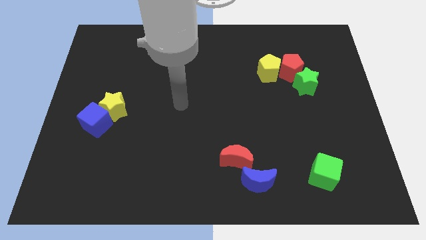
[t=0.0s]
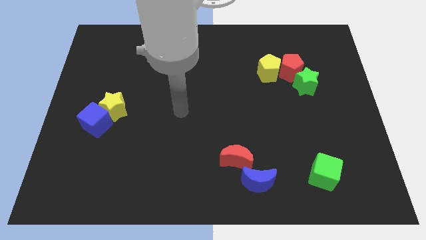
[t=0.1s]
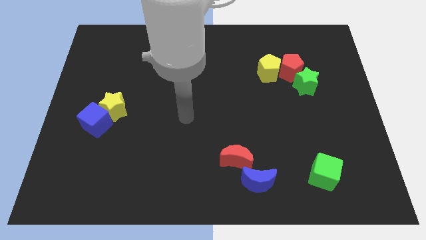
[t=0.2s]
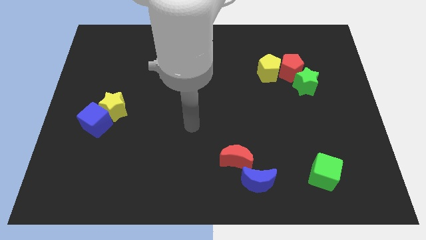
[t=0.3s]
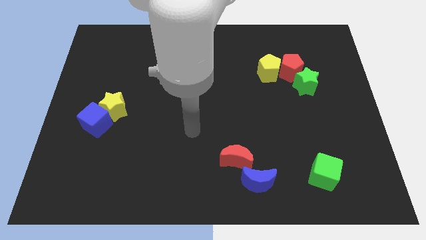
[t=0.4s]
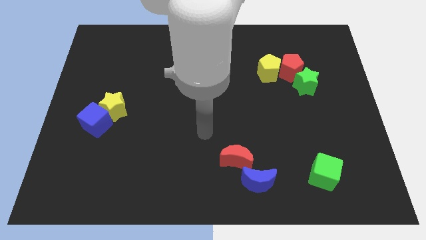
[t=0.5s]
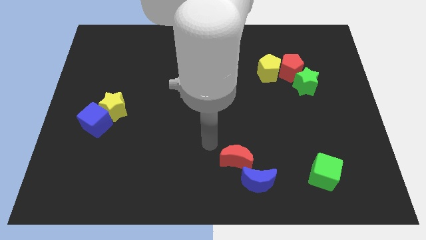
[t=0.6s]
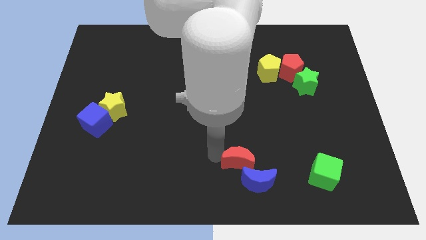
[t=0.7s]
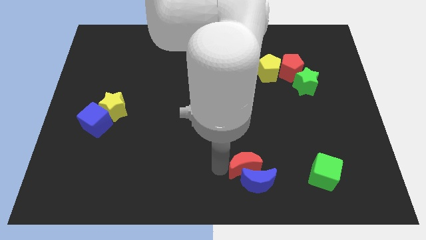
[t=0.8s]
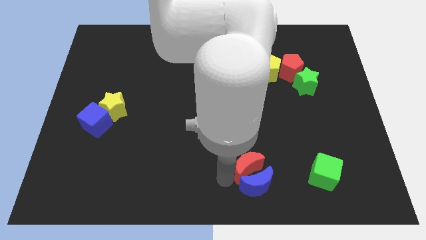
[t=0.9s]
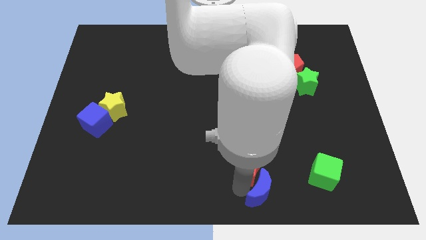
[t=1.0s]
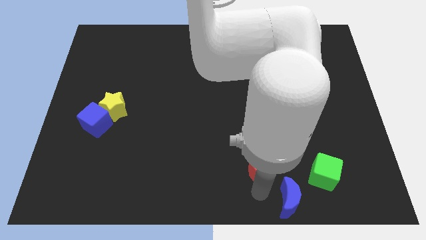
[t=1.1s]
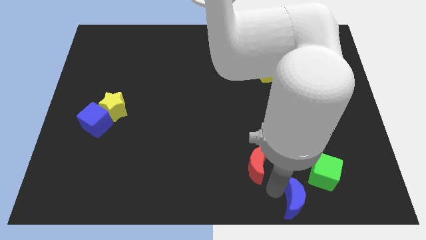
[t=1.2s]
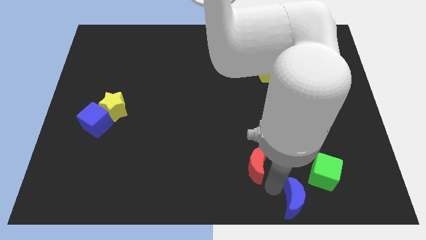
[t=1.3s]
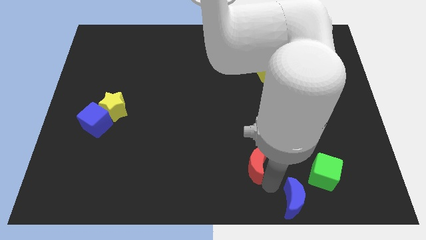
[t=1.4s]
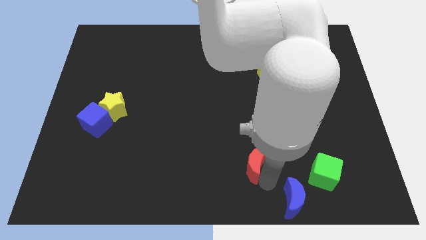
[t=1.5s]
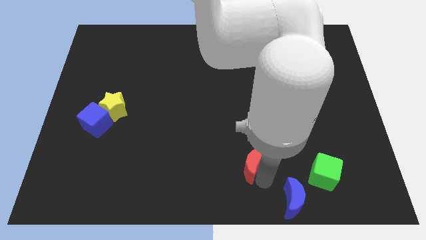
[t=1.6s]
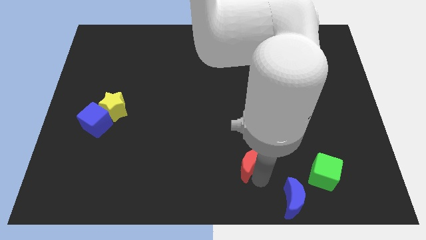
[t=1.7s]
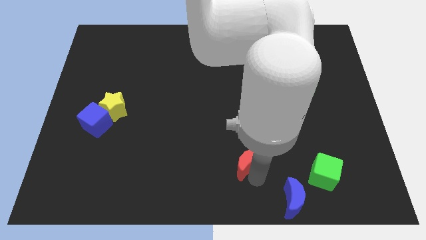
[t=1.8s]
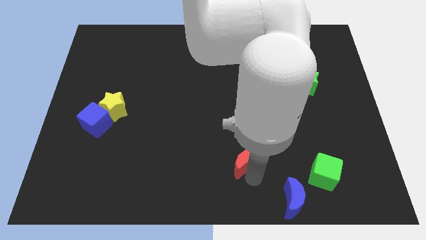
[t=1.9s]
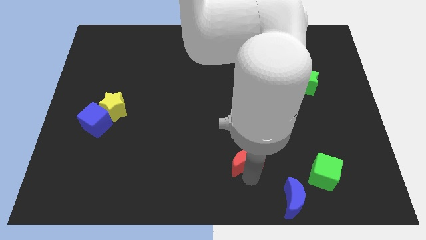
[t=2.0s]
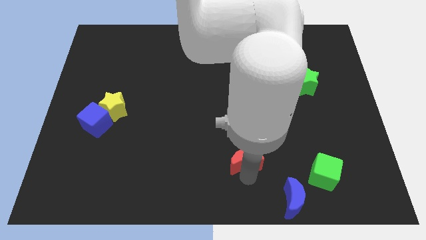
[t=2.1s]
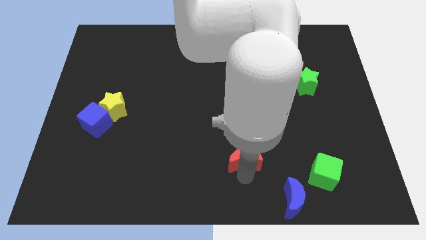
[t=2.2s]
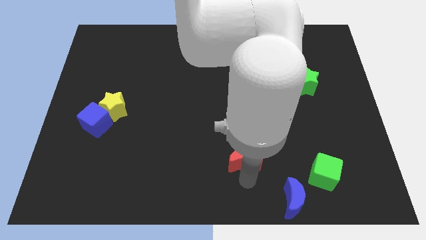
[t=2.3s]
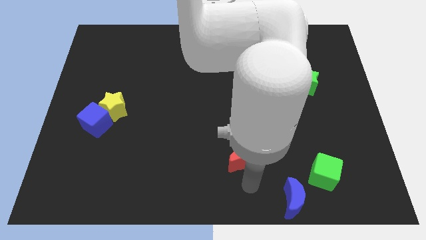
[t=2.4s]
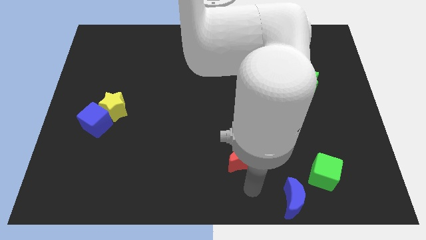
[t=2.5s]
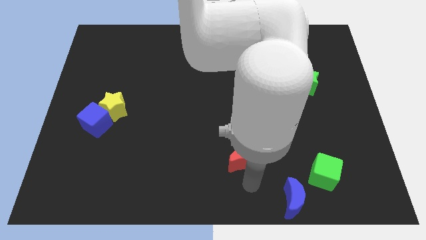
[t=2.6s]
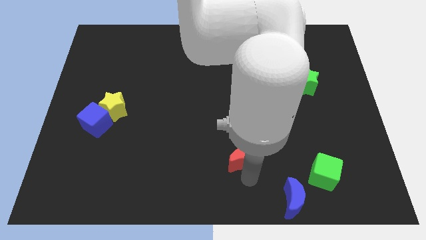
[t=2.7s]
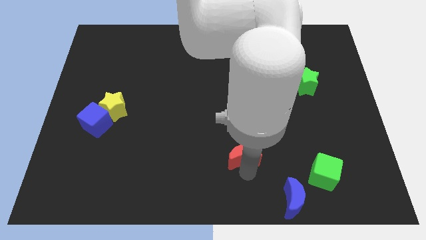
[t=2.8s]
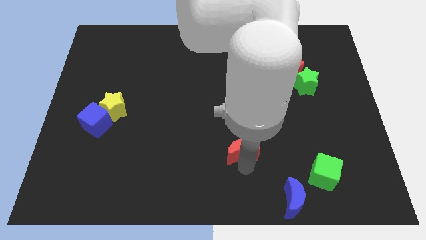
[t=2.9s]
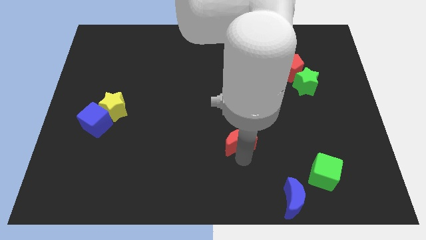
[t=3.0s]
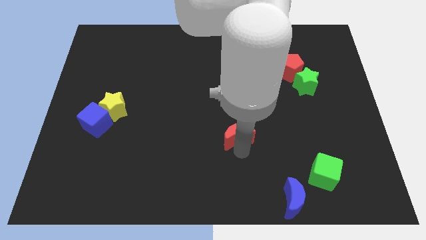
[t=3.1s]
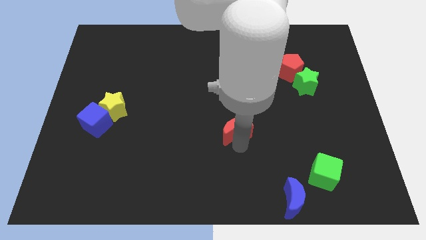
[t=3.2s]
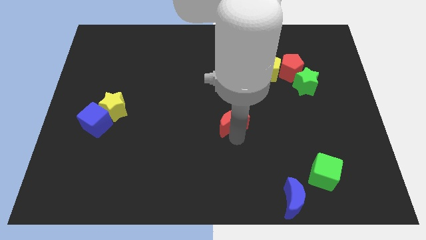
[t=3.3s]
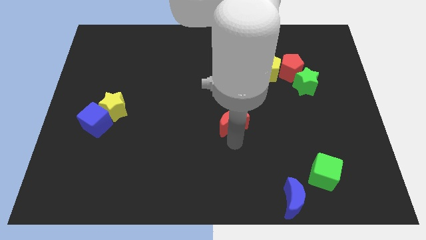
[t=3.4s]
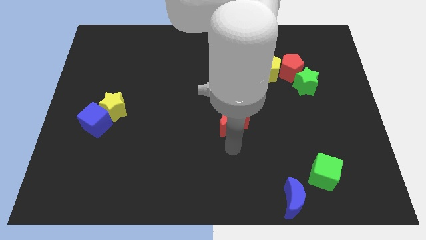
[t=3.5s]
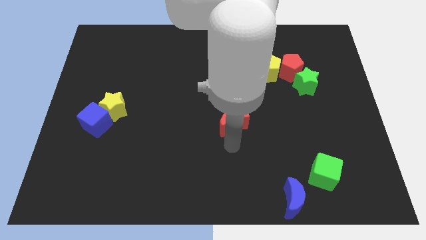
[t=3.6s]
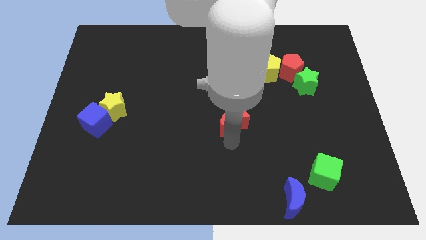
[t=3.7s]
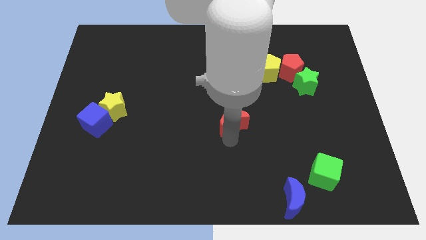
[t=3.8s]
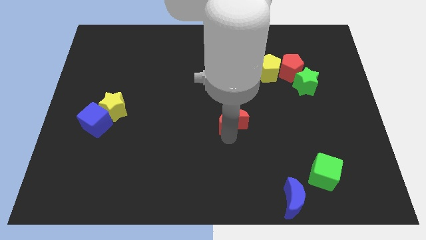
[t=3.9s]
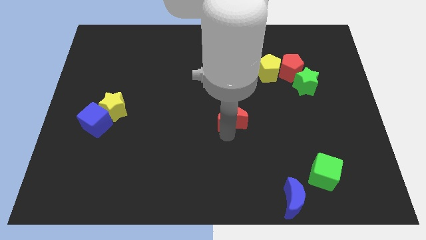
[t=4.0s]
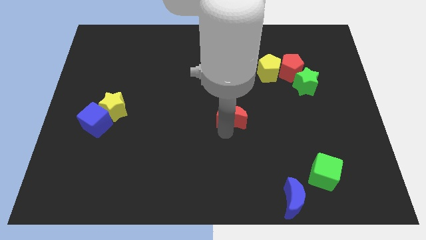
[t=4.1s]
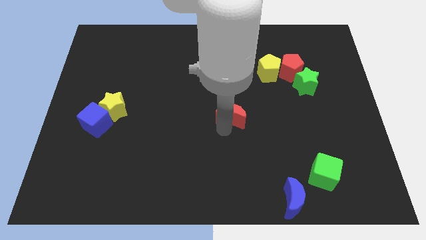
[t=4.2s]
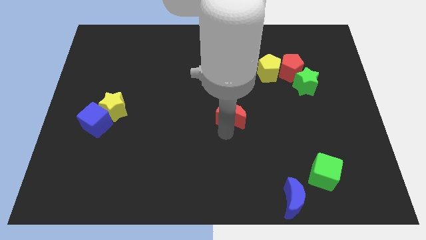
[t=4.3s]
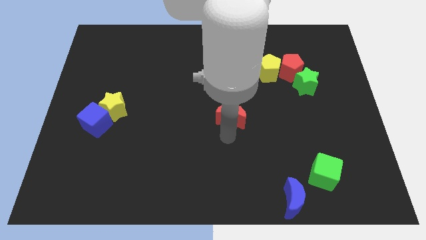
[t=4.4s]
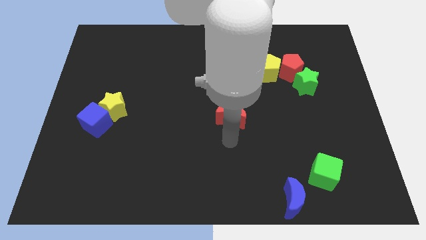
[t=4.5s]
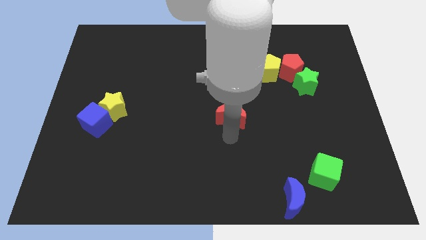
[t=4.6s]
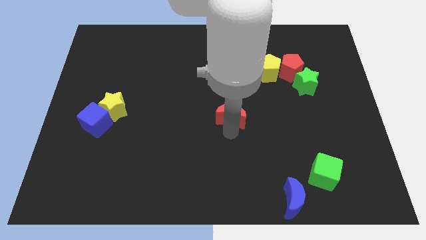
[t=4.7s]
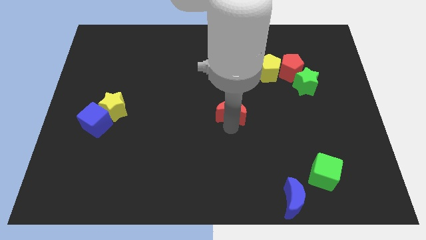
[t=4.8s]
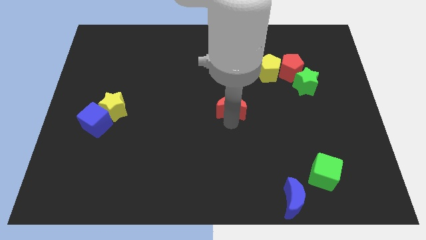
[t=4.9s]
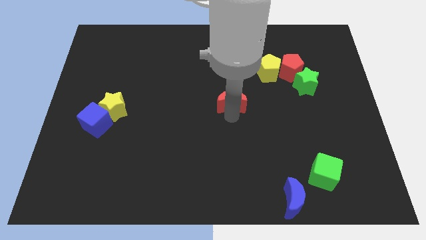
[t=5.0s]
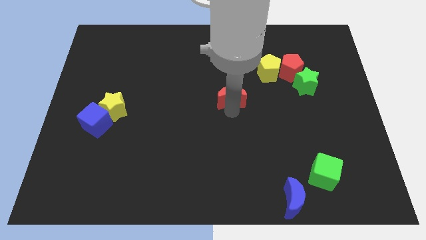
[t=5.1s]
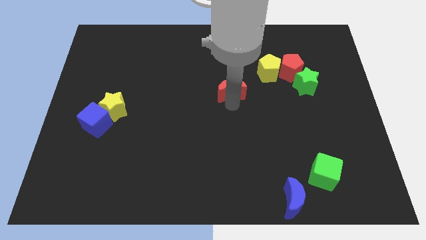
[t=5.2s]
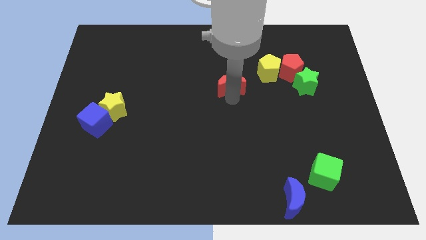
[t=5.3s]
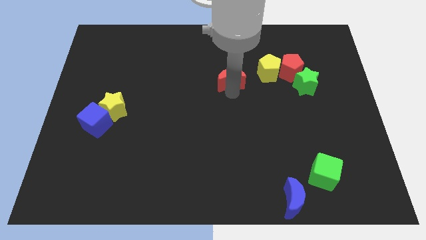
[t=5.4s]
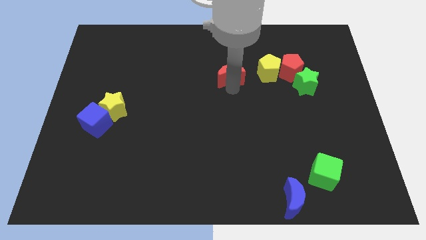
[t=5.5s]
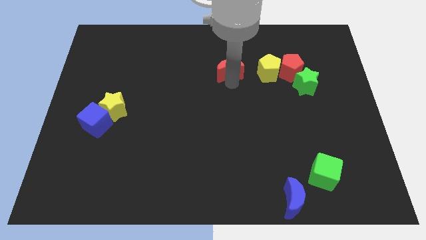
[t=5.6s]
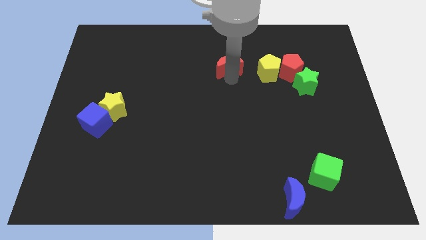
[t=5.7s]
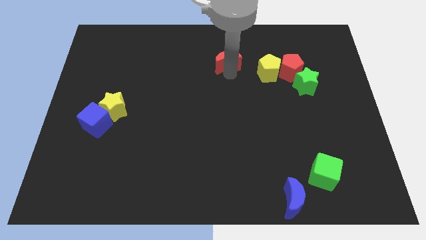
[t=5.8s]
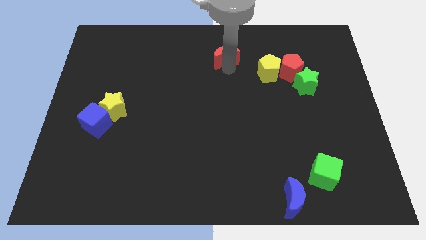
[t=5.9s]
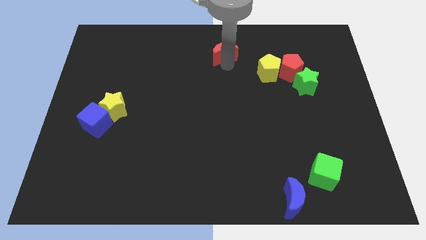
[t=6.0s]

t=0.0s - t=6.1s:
move the red moon to the towards your base
